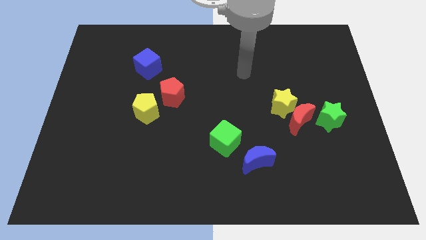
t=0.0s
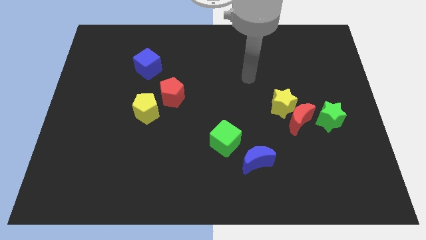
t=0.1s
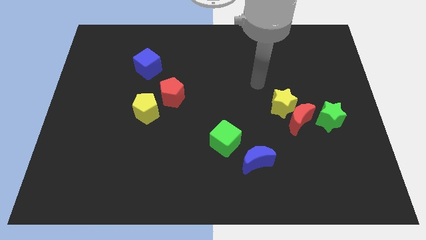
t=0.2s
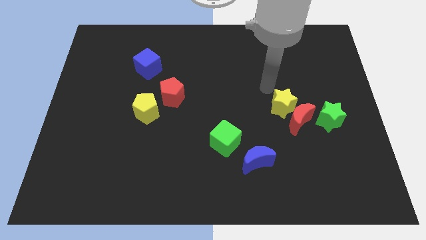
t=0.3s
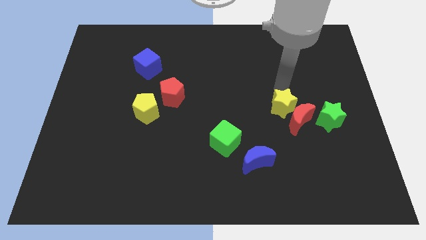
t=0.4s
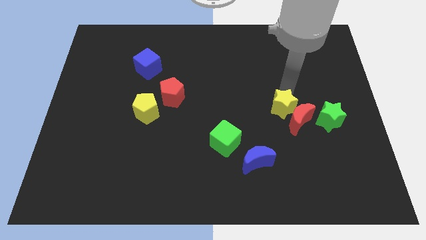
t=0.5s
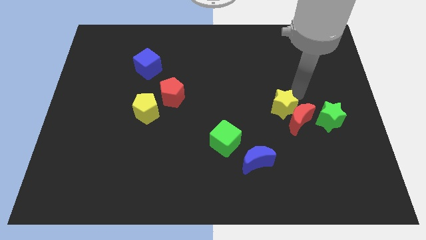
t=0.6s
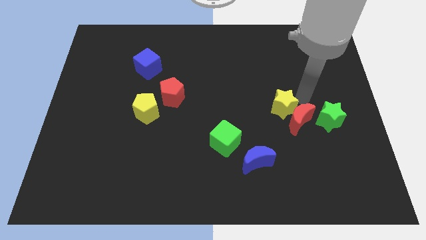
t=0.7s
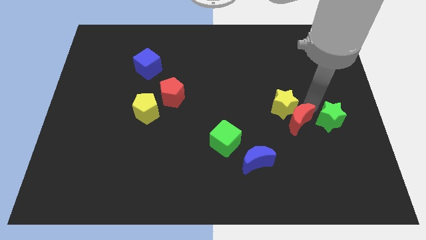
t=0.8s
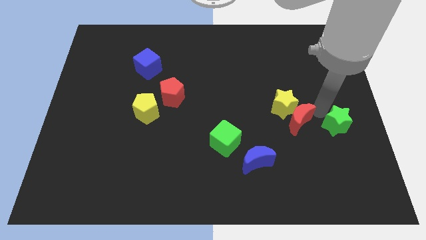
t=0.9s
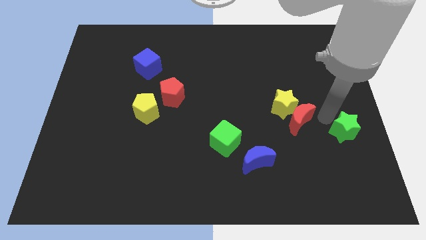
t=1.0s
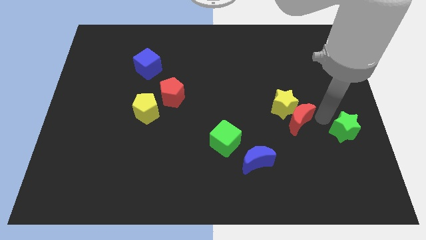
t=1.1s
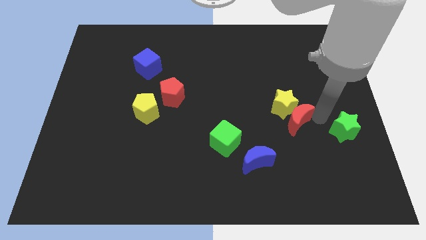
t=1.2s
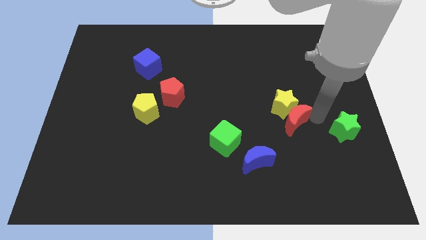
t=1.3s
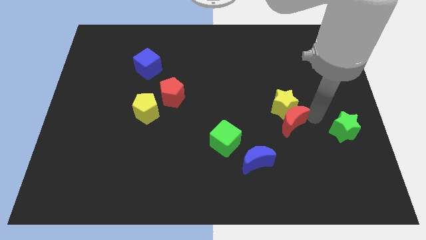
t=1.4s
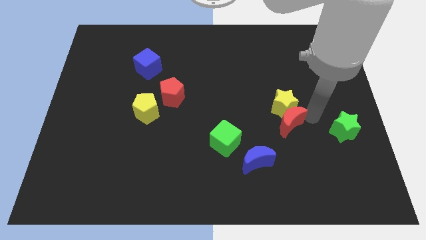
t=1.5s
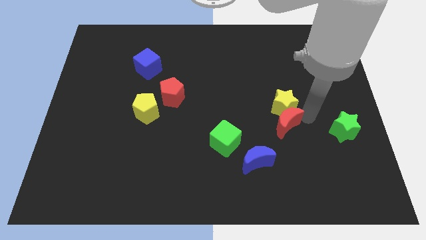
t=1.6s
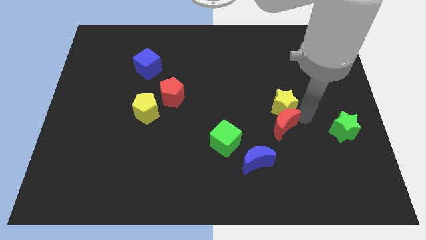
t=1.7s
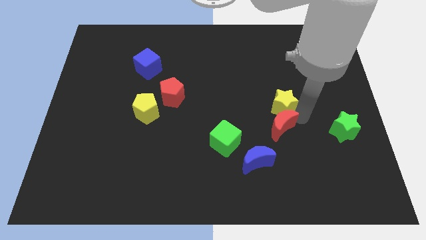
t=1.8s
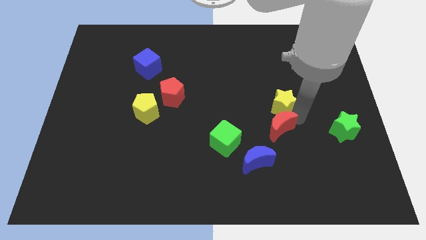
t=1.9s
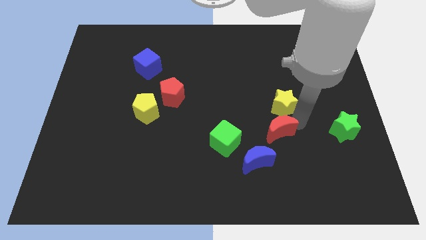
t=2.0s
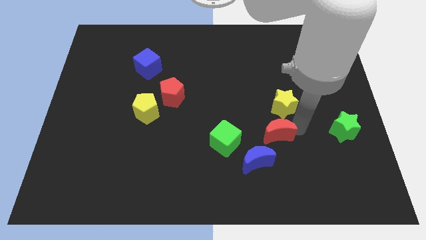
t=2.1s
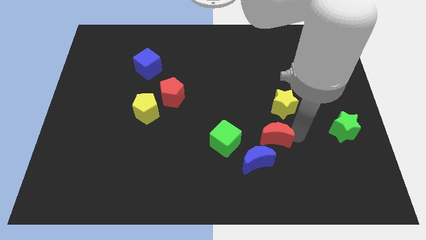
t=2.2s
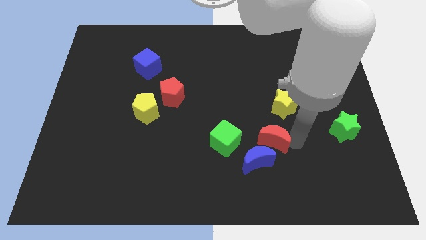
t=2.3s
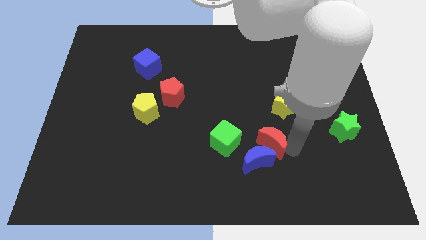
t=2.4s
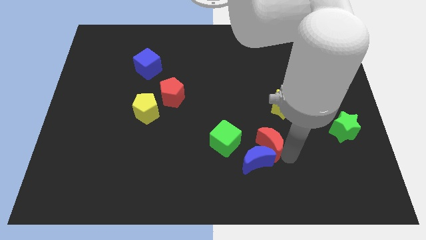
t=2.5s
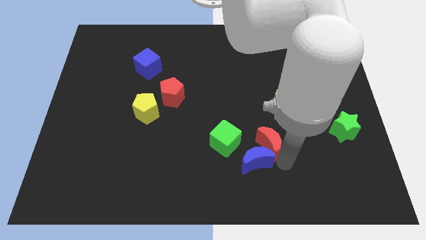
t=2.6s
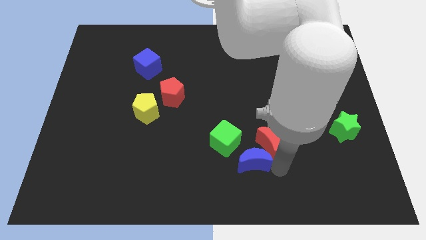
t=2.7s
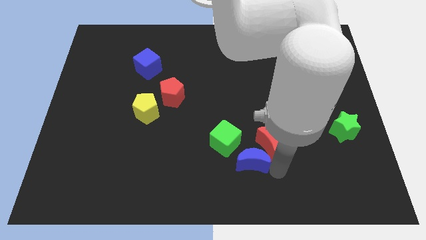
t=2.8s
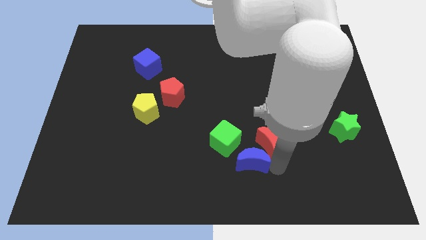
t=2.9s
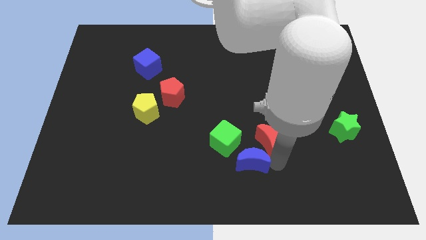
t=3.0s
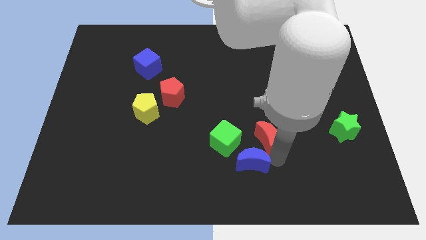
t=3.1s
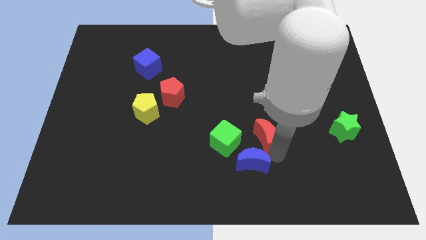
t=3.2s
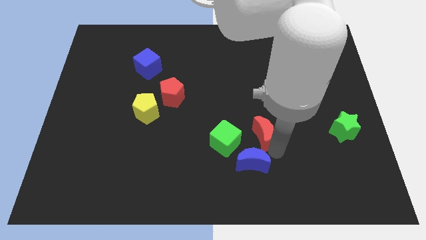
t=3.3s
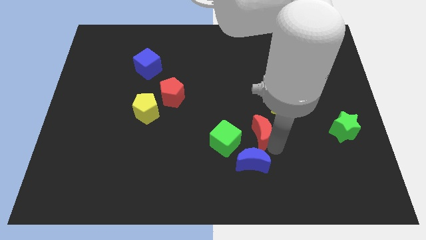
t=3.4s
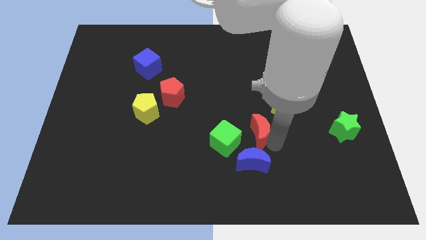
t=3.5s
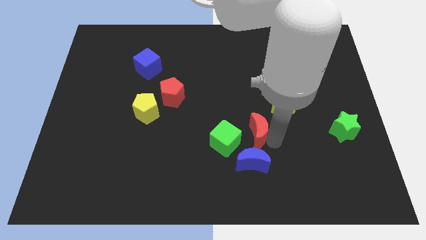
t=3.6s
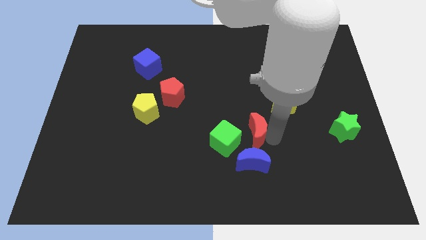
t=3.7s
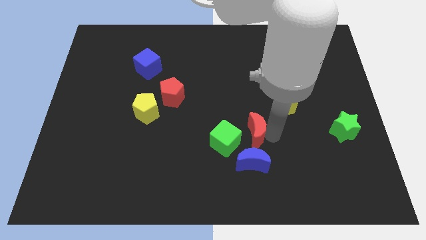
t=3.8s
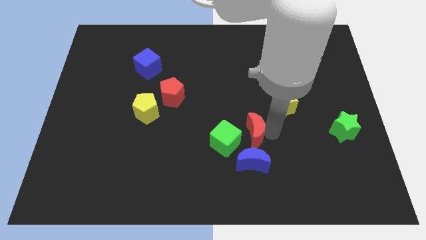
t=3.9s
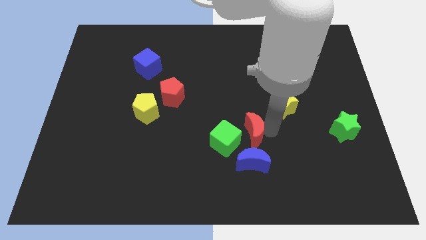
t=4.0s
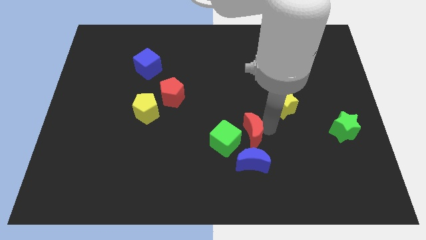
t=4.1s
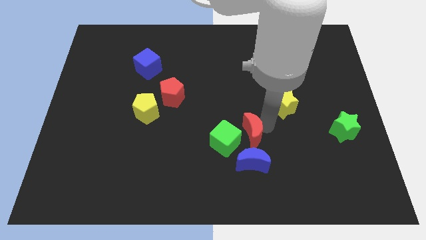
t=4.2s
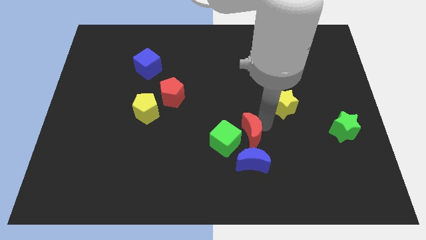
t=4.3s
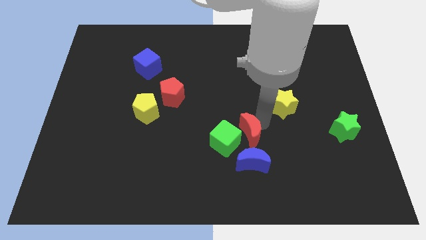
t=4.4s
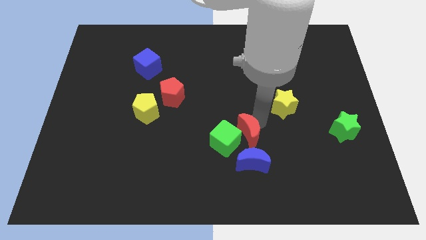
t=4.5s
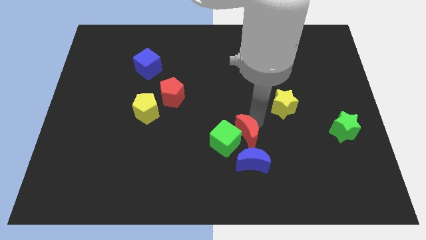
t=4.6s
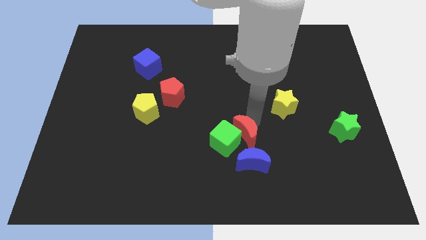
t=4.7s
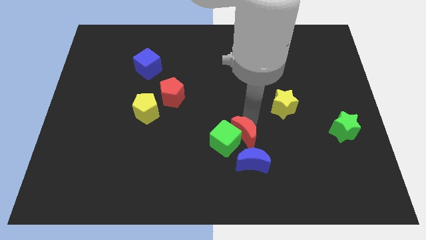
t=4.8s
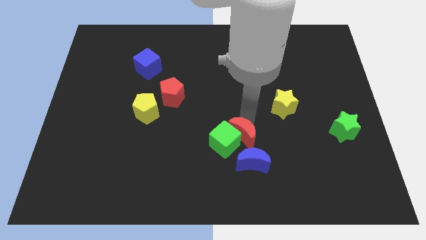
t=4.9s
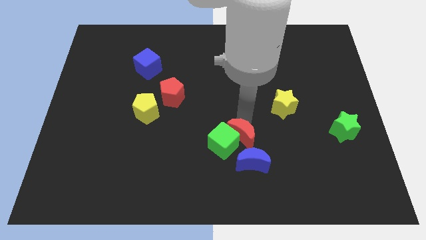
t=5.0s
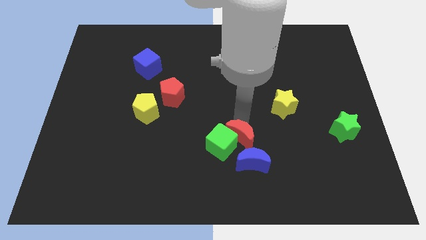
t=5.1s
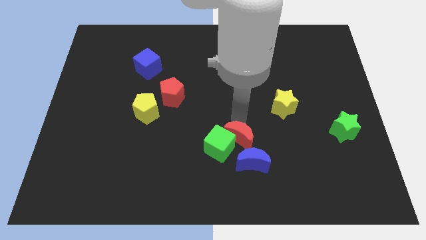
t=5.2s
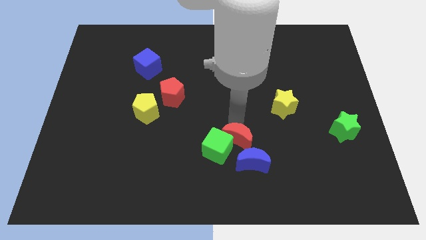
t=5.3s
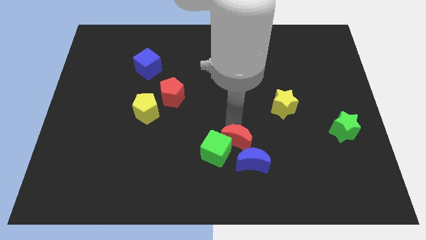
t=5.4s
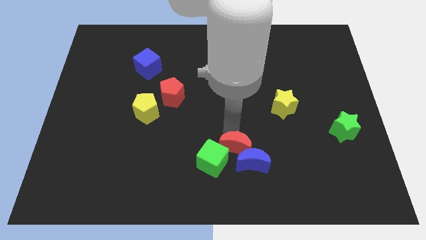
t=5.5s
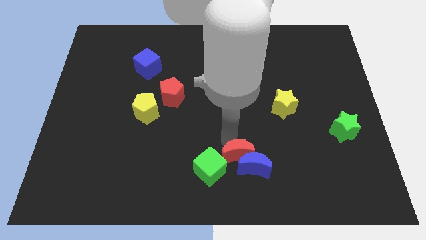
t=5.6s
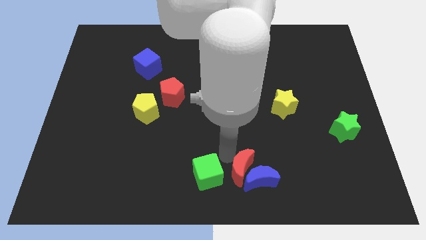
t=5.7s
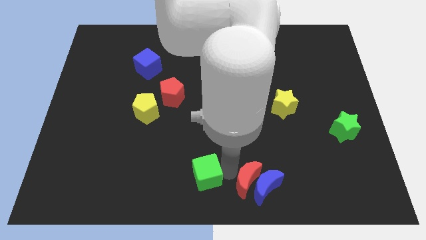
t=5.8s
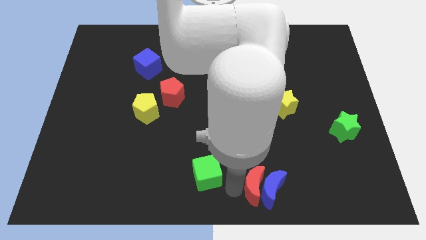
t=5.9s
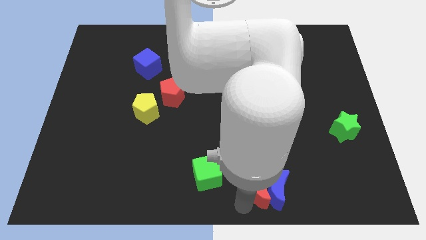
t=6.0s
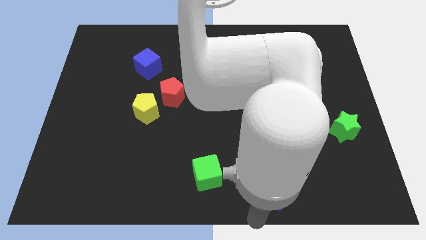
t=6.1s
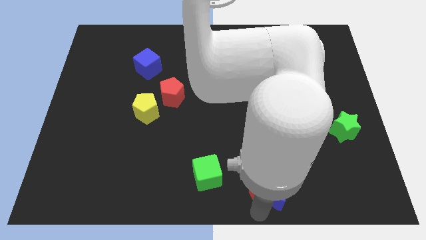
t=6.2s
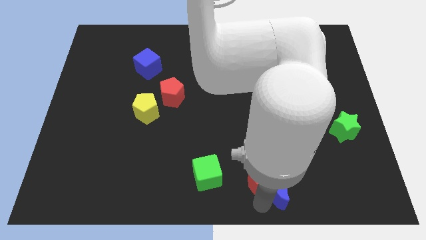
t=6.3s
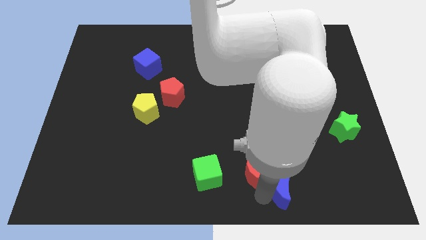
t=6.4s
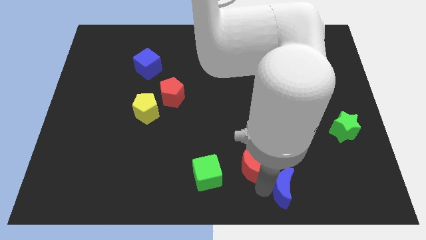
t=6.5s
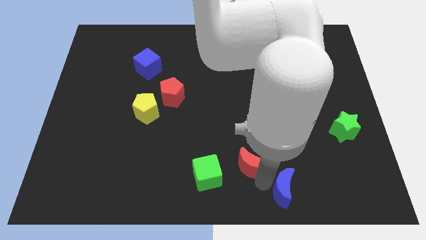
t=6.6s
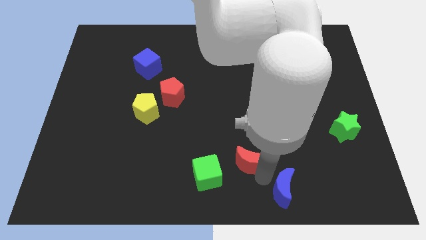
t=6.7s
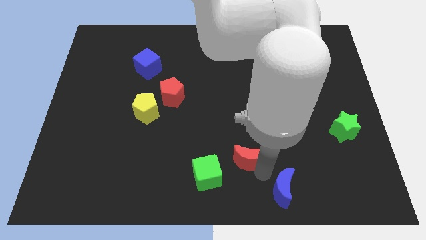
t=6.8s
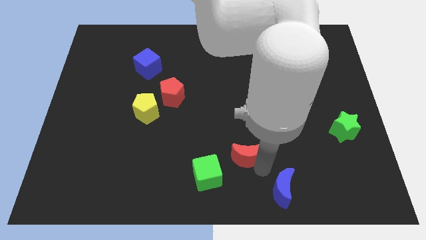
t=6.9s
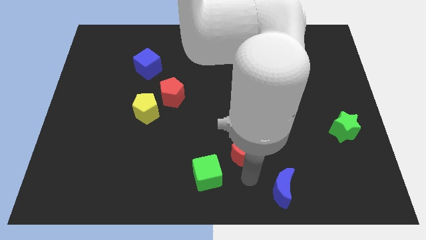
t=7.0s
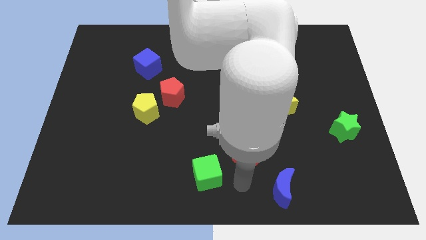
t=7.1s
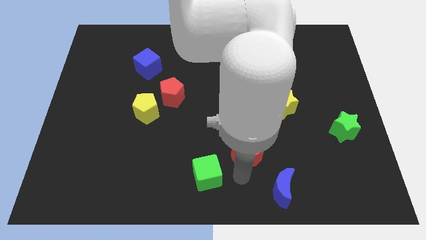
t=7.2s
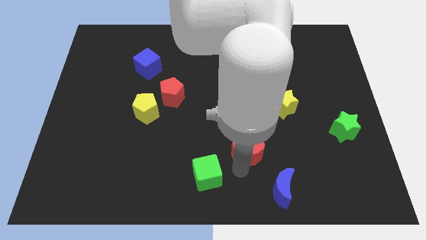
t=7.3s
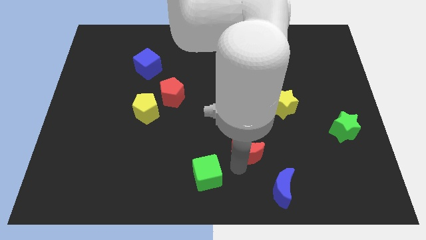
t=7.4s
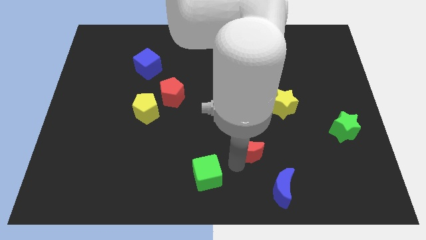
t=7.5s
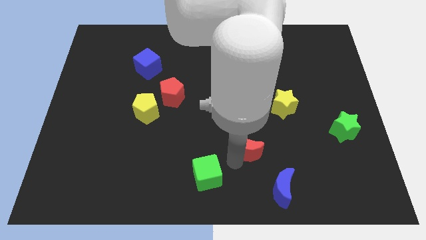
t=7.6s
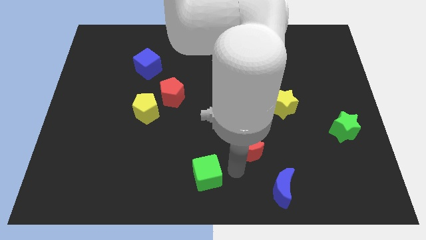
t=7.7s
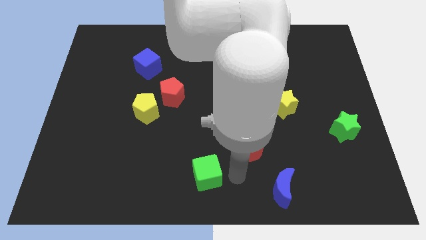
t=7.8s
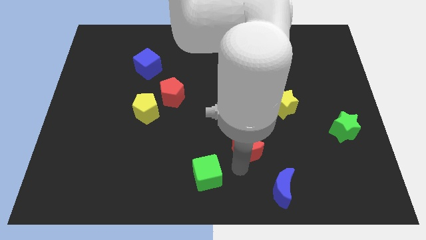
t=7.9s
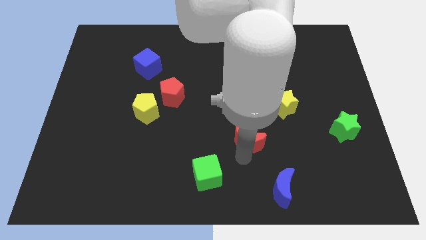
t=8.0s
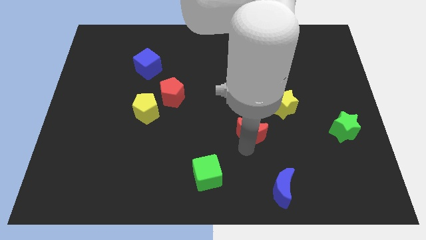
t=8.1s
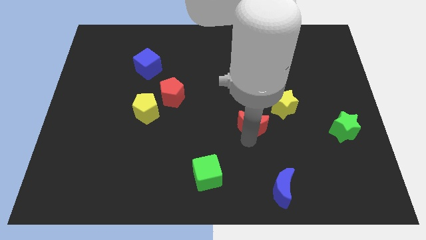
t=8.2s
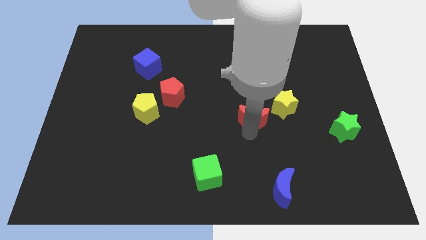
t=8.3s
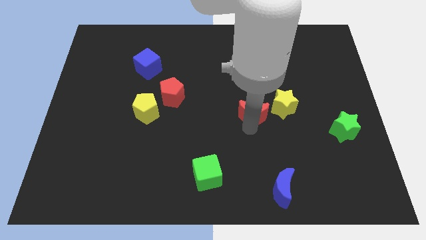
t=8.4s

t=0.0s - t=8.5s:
slightly push the red moon up and left diagonally
